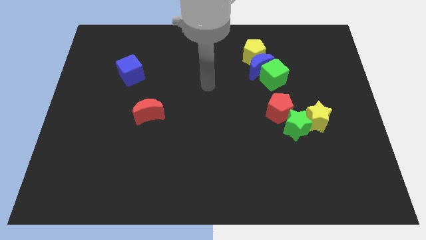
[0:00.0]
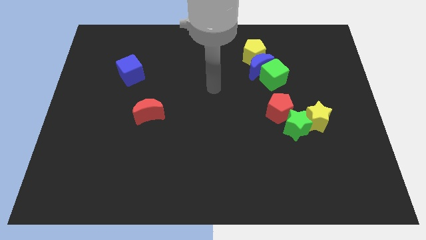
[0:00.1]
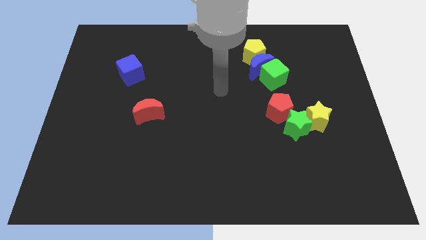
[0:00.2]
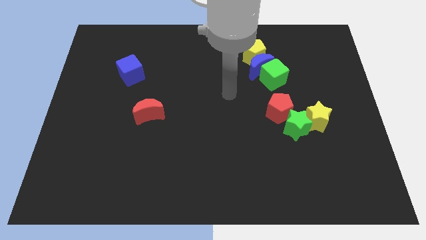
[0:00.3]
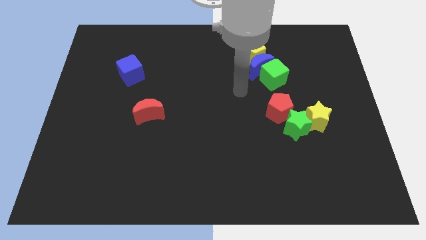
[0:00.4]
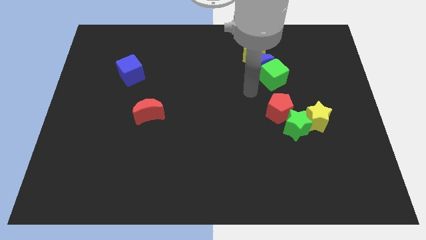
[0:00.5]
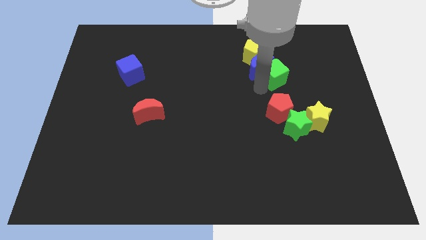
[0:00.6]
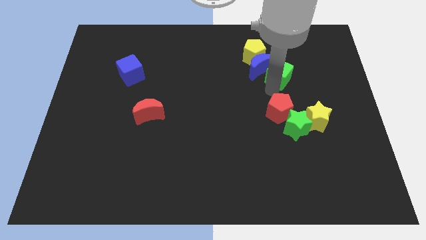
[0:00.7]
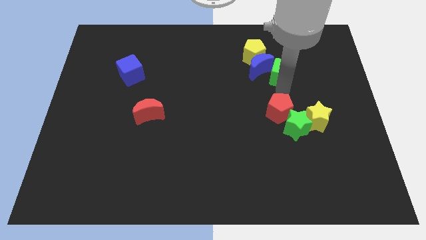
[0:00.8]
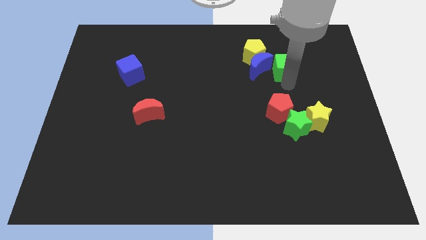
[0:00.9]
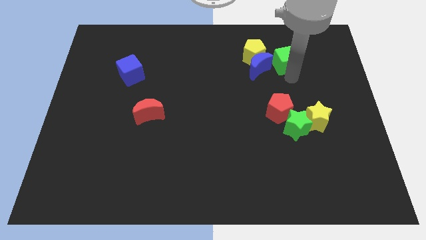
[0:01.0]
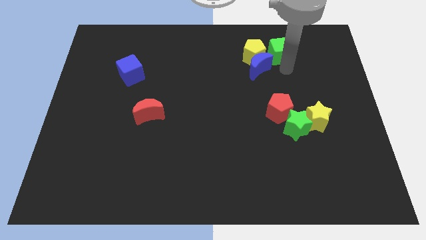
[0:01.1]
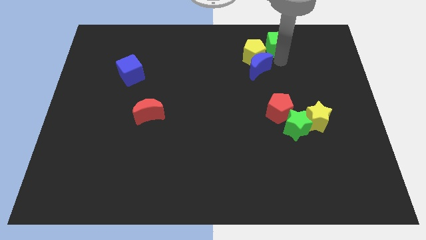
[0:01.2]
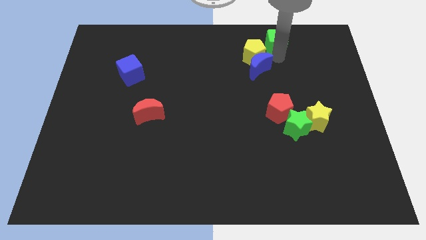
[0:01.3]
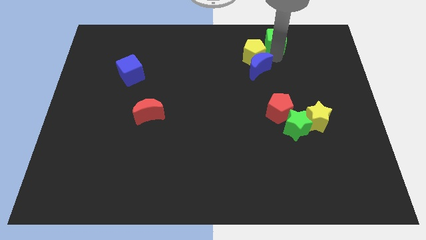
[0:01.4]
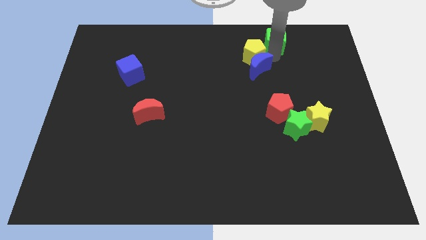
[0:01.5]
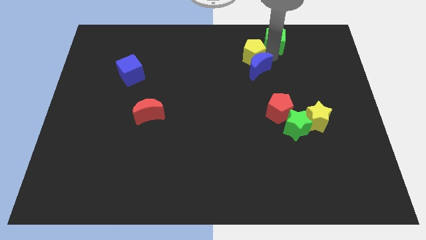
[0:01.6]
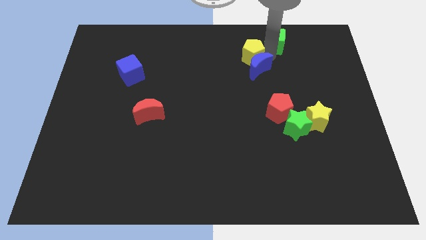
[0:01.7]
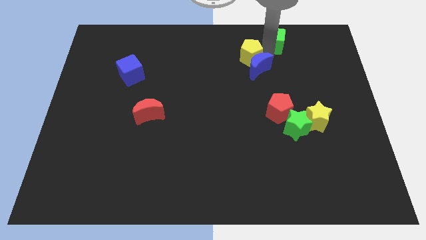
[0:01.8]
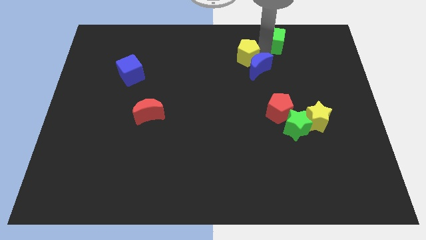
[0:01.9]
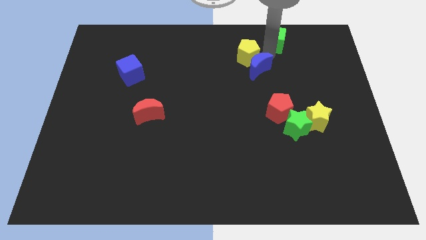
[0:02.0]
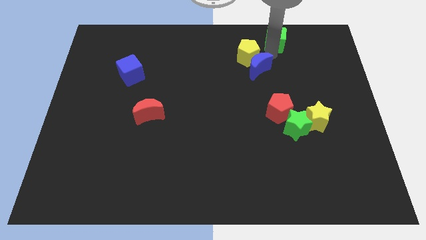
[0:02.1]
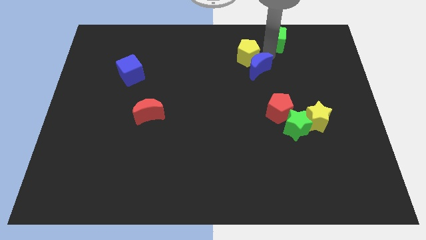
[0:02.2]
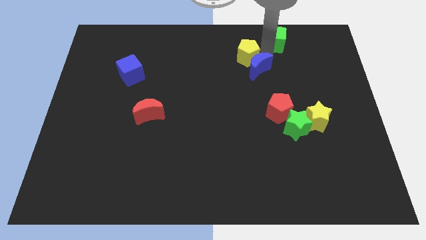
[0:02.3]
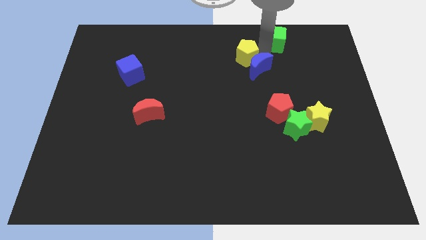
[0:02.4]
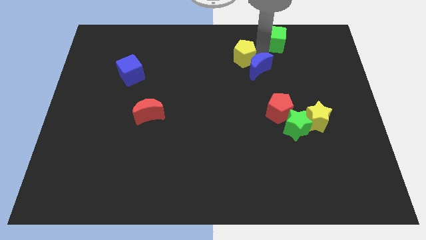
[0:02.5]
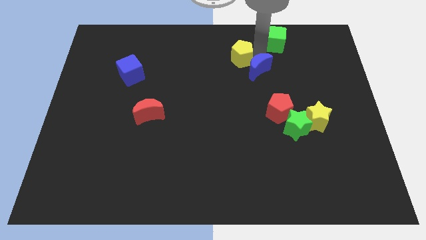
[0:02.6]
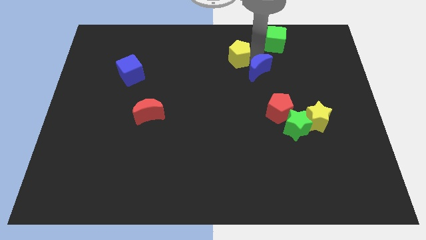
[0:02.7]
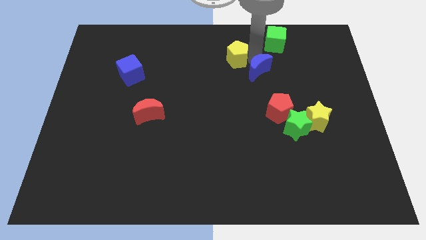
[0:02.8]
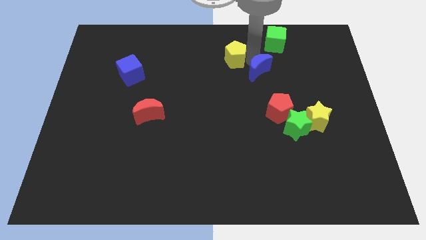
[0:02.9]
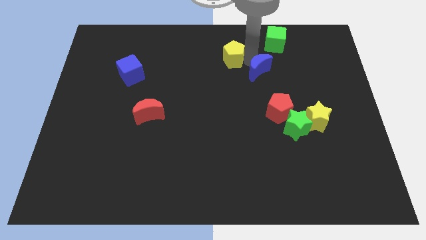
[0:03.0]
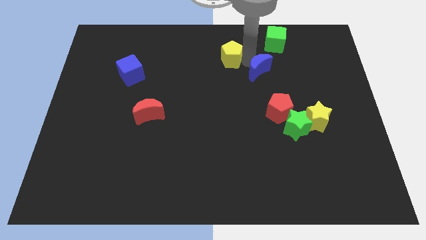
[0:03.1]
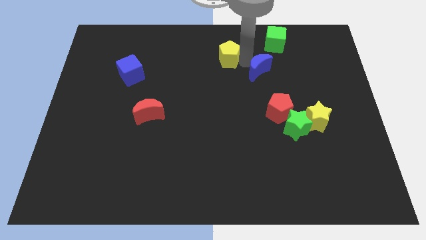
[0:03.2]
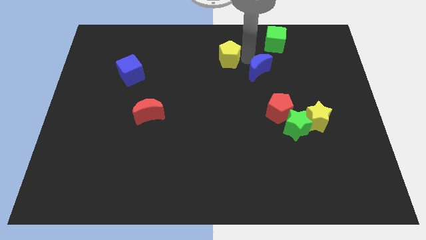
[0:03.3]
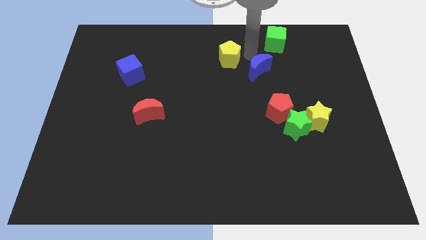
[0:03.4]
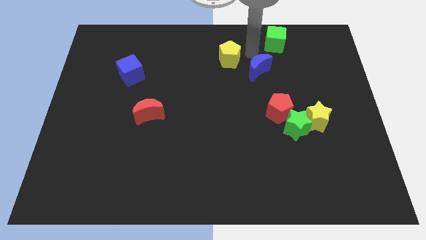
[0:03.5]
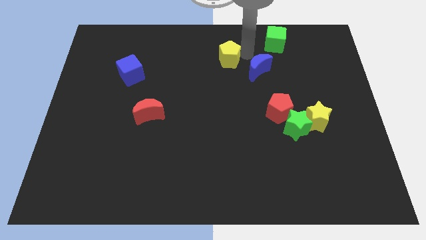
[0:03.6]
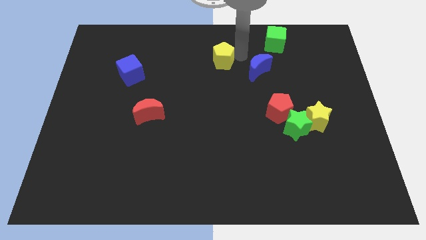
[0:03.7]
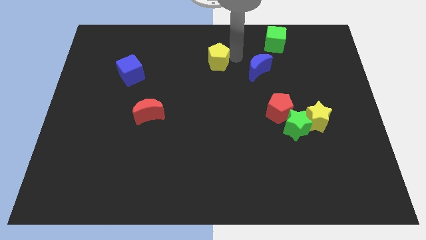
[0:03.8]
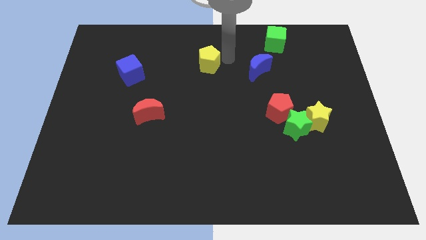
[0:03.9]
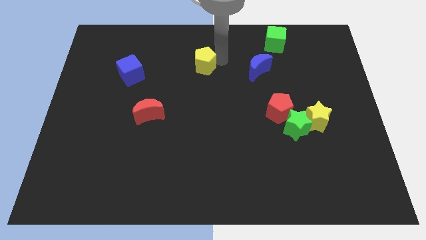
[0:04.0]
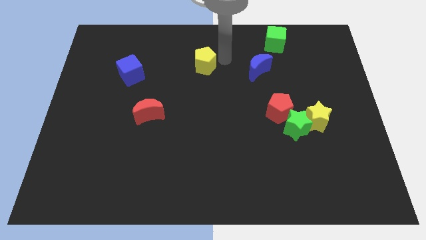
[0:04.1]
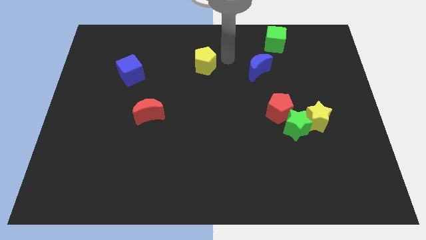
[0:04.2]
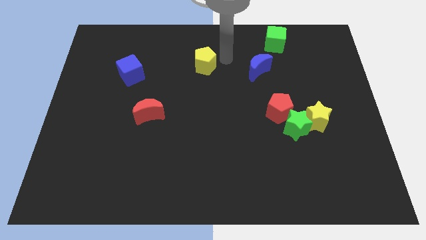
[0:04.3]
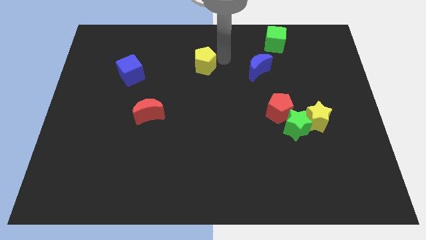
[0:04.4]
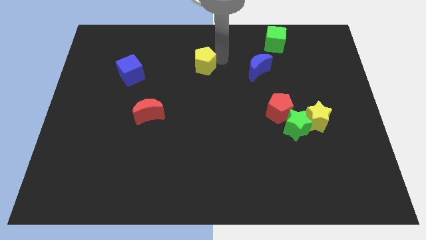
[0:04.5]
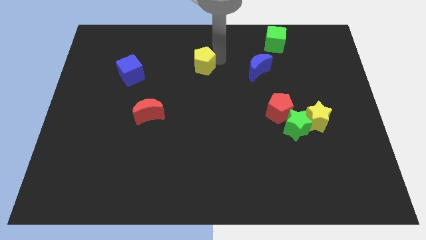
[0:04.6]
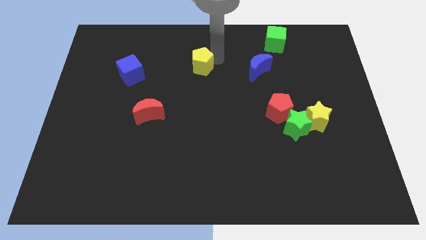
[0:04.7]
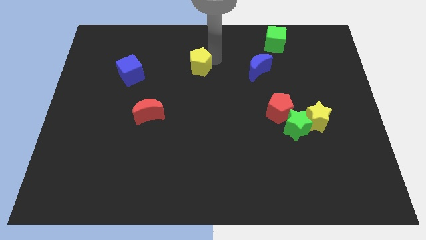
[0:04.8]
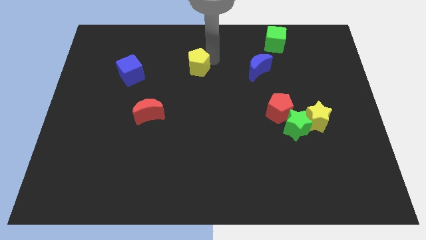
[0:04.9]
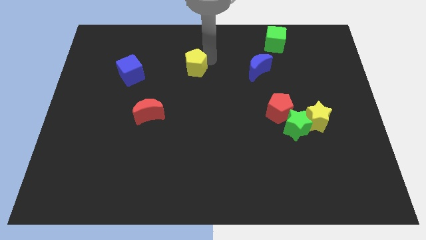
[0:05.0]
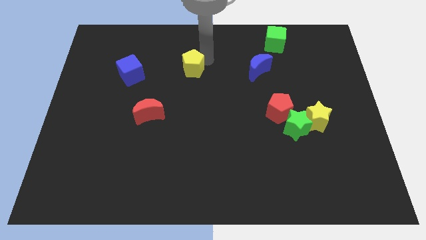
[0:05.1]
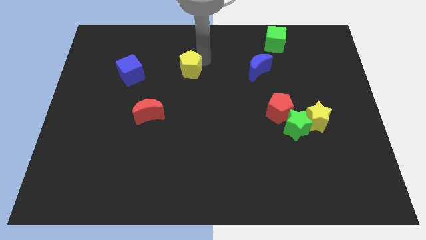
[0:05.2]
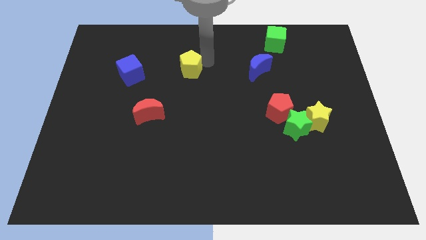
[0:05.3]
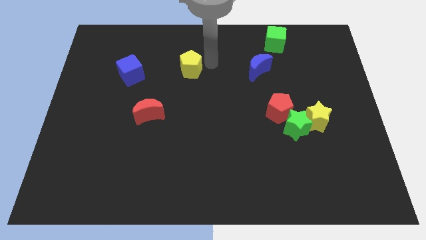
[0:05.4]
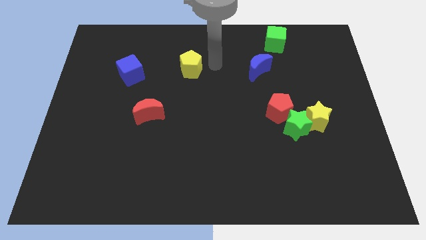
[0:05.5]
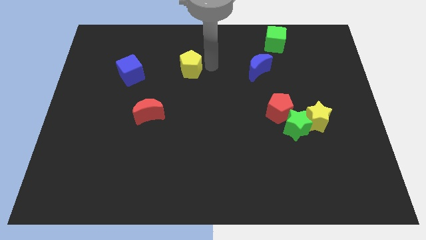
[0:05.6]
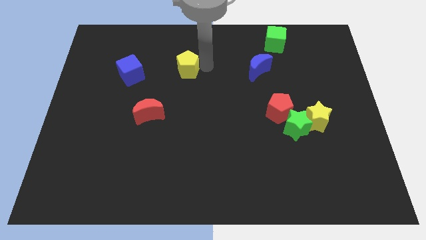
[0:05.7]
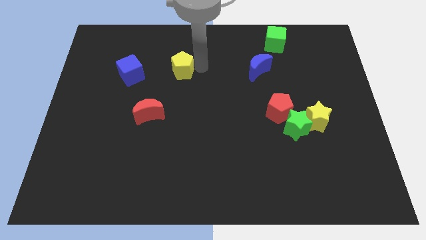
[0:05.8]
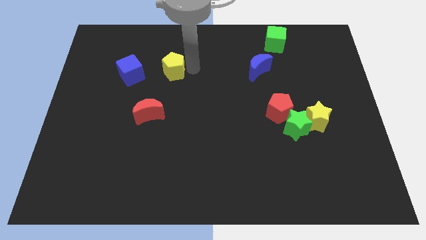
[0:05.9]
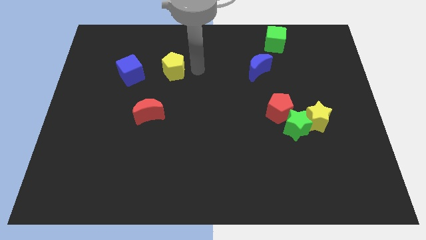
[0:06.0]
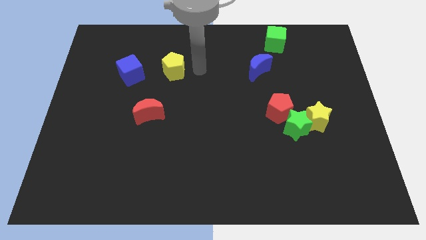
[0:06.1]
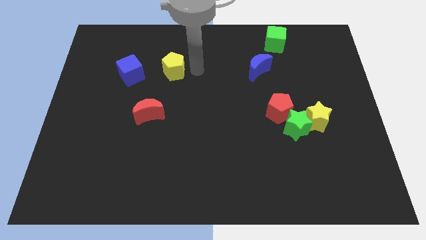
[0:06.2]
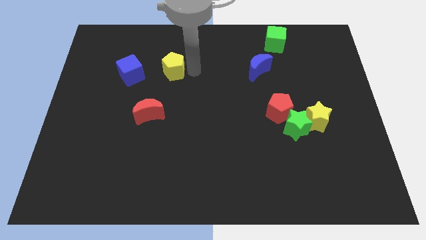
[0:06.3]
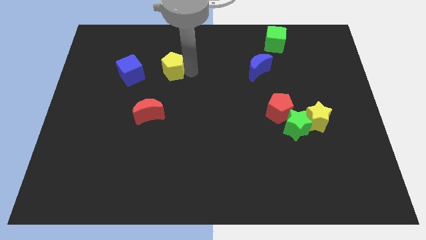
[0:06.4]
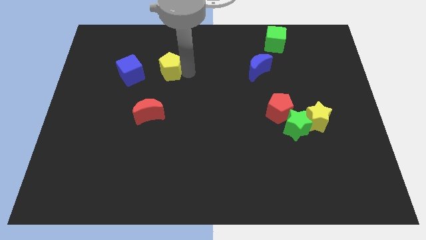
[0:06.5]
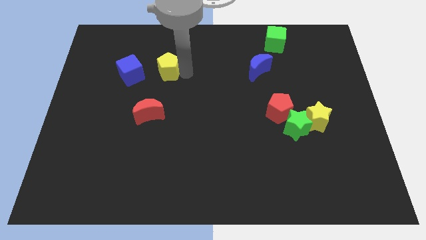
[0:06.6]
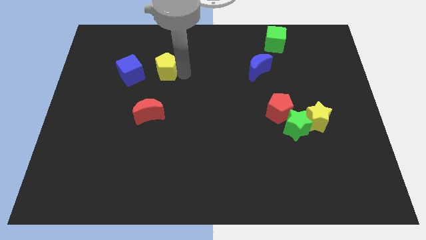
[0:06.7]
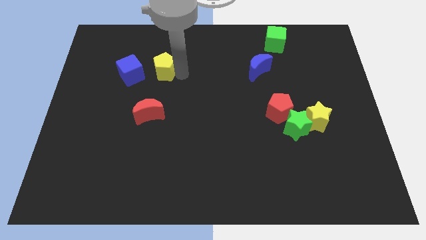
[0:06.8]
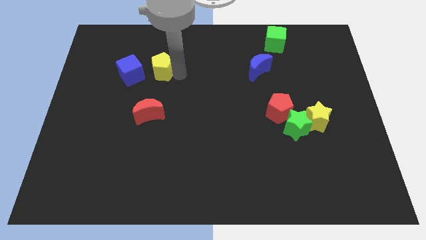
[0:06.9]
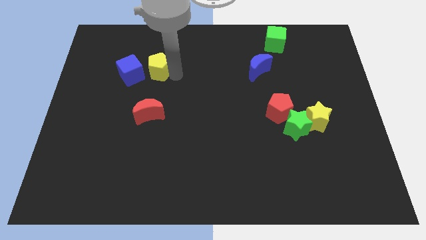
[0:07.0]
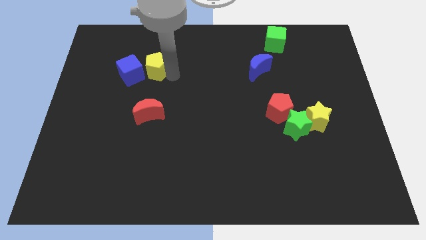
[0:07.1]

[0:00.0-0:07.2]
push the yellow pentagon close to the blue cube
